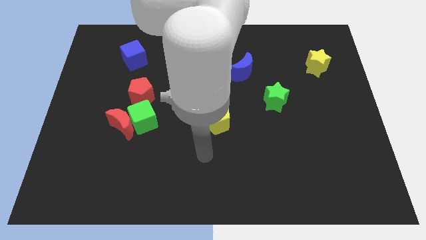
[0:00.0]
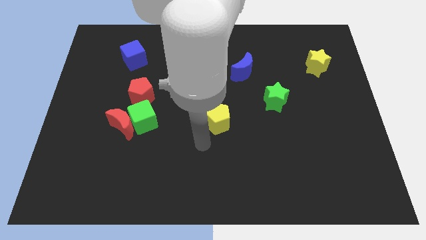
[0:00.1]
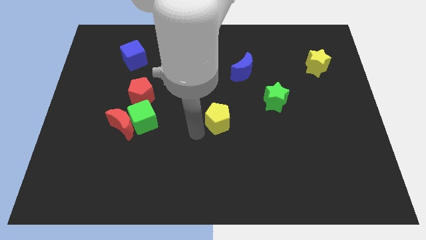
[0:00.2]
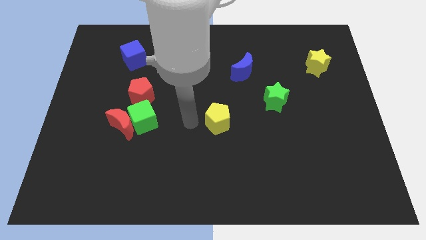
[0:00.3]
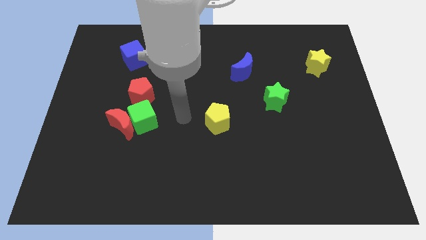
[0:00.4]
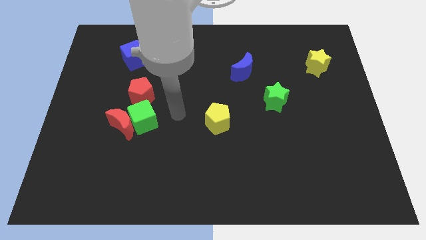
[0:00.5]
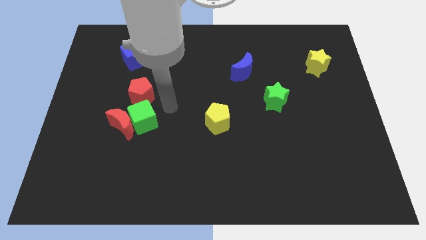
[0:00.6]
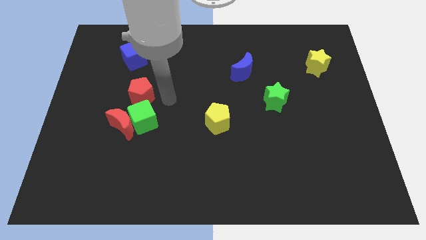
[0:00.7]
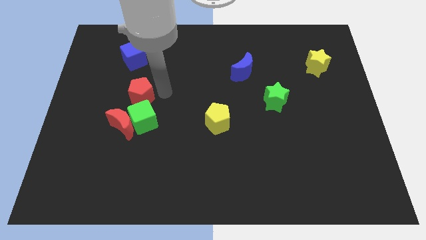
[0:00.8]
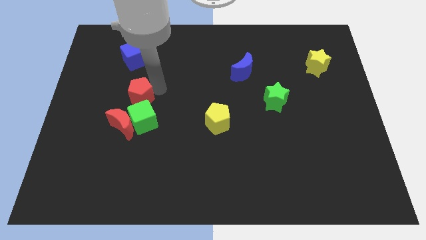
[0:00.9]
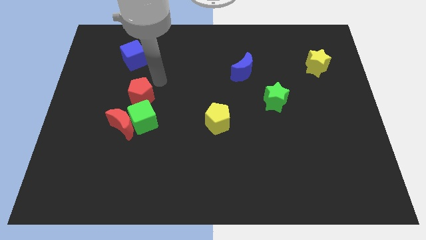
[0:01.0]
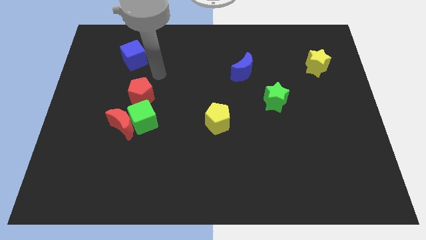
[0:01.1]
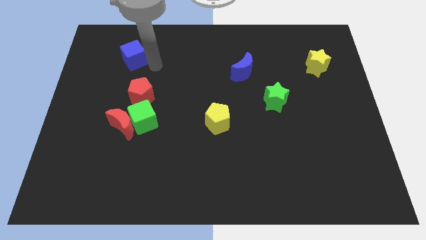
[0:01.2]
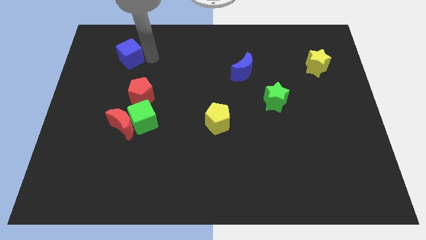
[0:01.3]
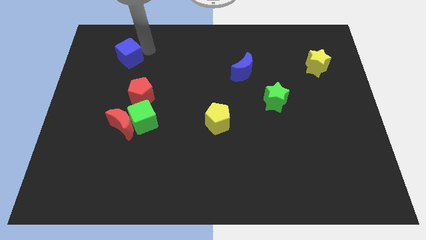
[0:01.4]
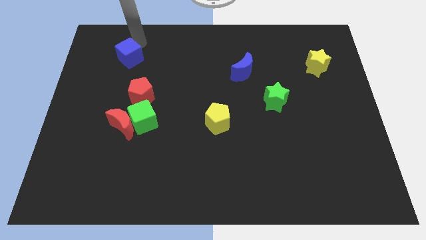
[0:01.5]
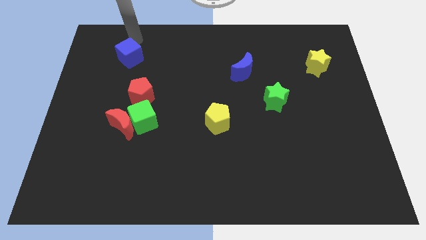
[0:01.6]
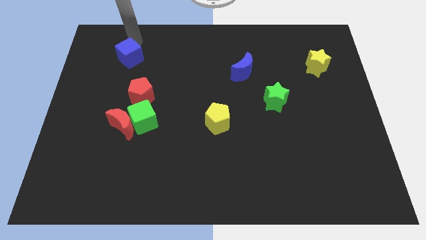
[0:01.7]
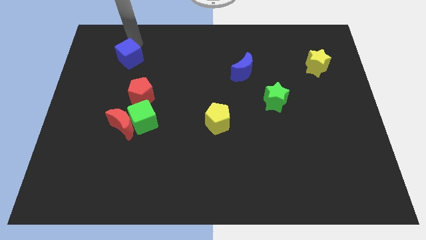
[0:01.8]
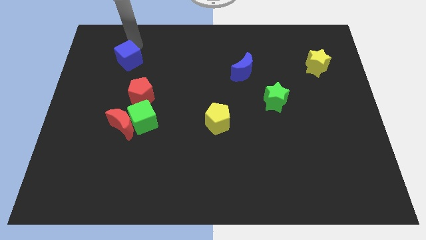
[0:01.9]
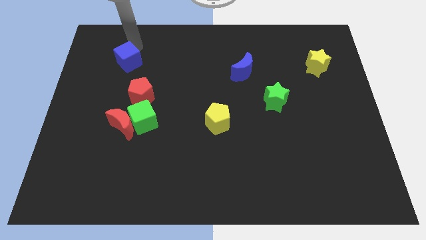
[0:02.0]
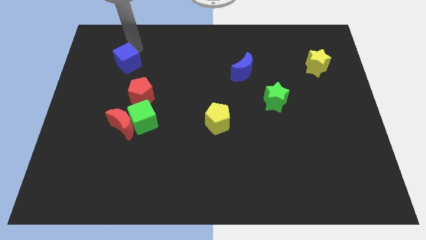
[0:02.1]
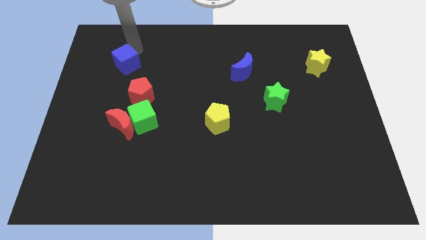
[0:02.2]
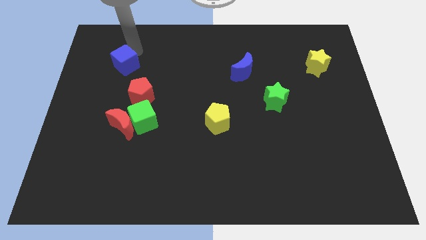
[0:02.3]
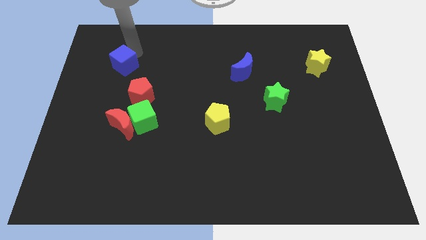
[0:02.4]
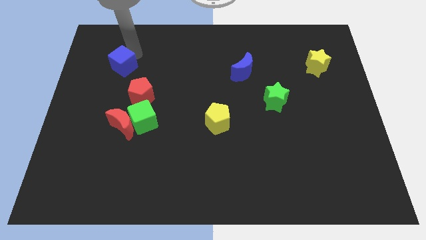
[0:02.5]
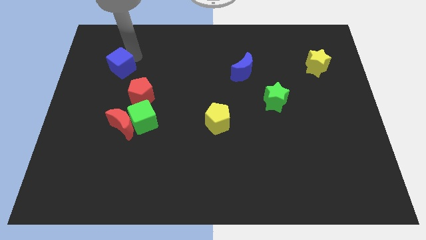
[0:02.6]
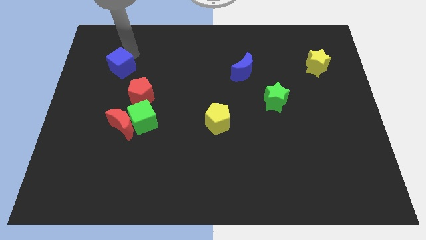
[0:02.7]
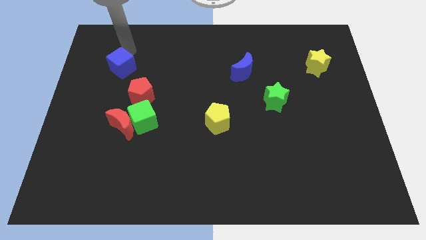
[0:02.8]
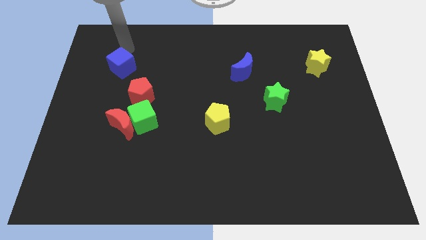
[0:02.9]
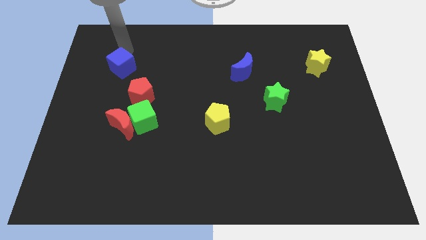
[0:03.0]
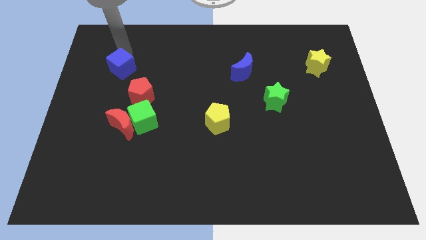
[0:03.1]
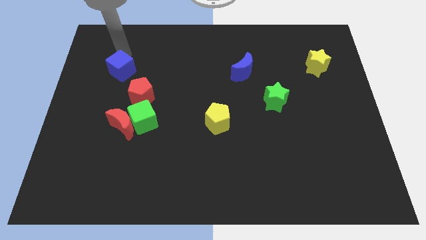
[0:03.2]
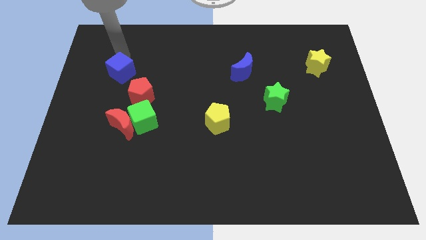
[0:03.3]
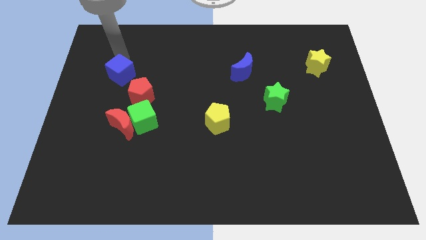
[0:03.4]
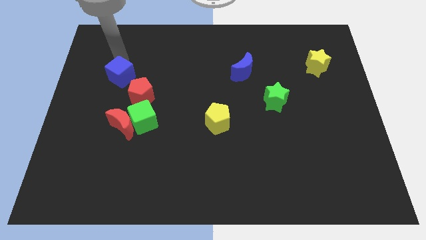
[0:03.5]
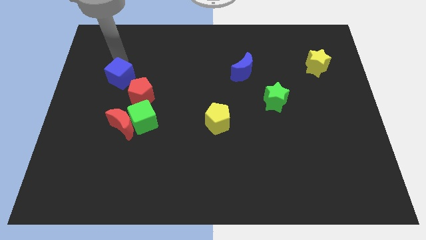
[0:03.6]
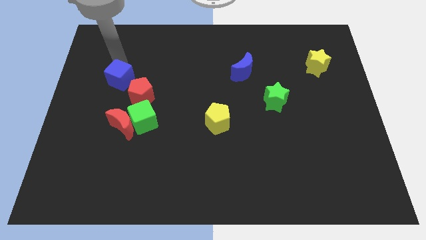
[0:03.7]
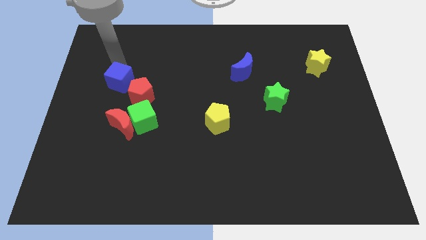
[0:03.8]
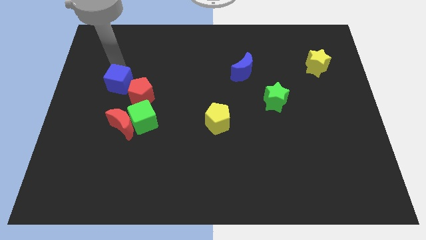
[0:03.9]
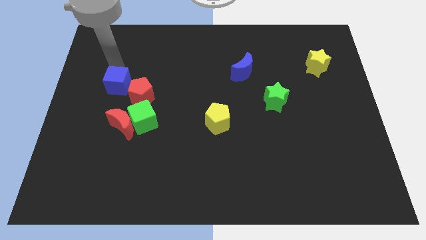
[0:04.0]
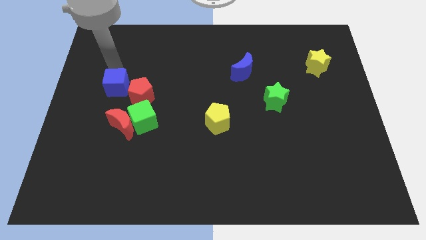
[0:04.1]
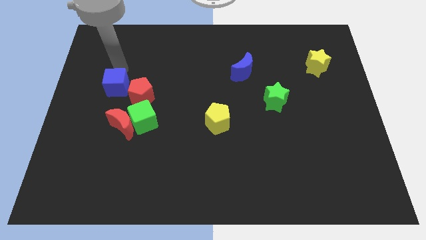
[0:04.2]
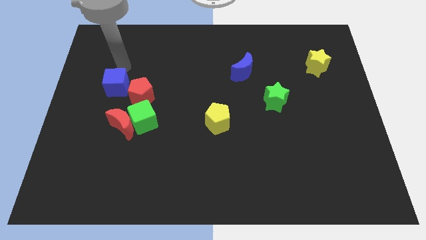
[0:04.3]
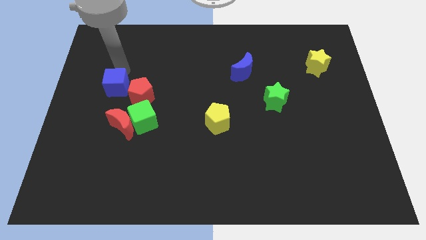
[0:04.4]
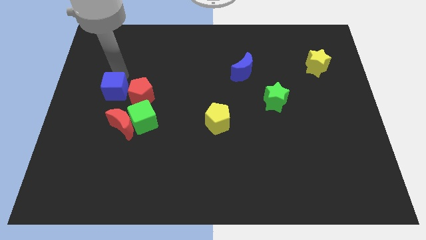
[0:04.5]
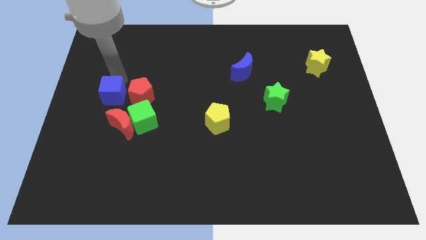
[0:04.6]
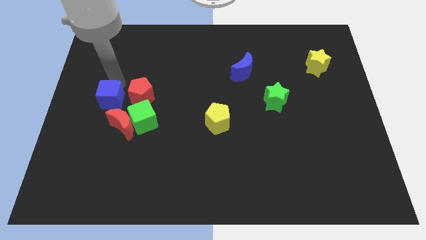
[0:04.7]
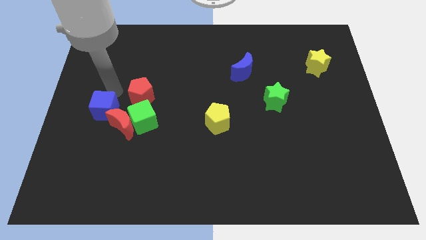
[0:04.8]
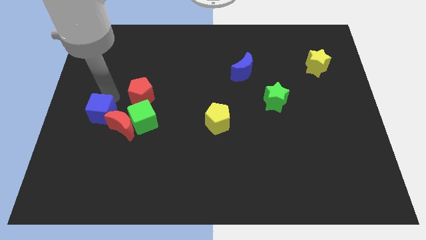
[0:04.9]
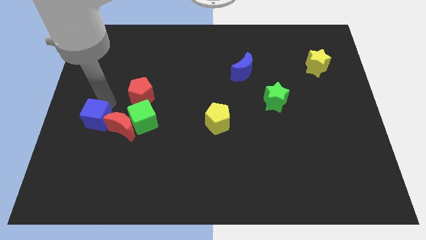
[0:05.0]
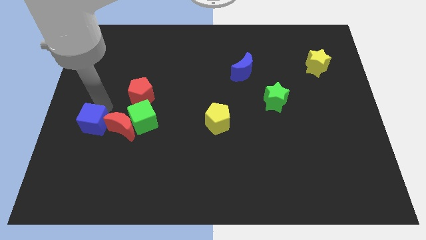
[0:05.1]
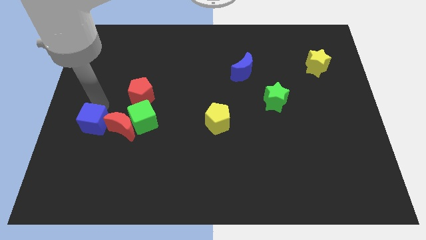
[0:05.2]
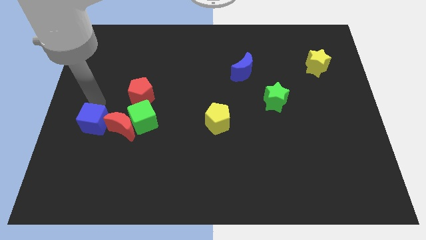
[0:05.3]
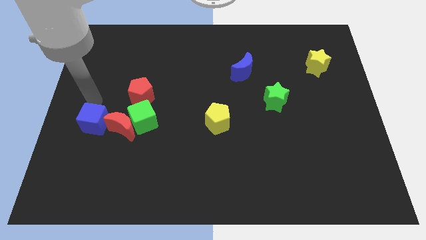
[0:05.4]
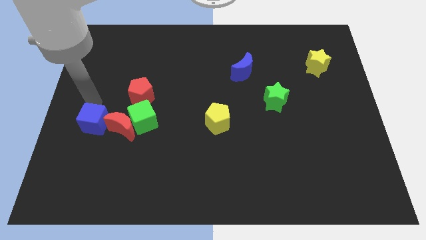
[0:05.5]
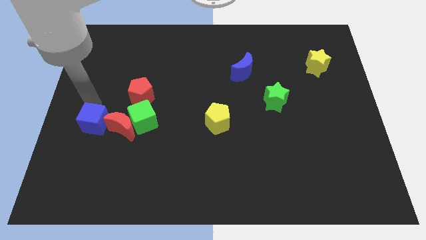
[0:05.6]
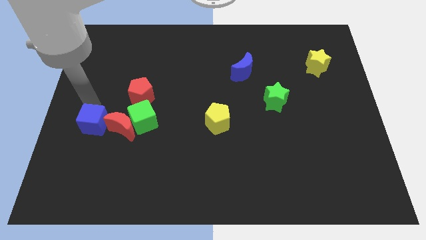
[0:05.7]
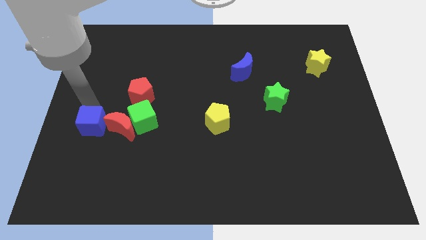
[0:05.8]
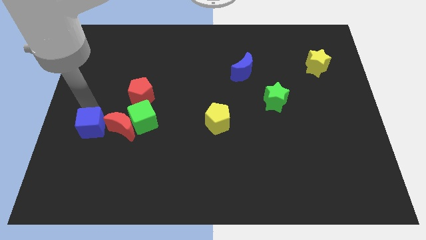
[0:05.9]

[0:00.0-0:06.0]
move the blue cube downwards

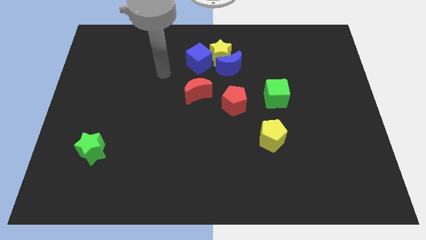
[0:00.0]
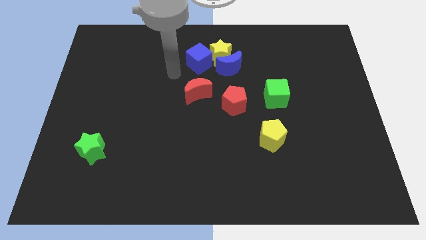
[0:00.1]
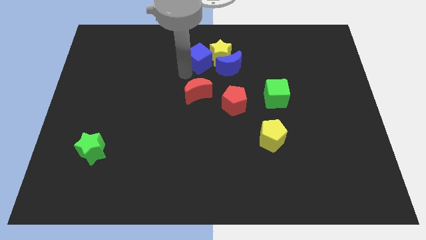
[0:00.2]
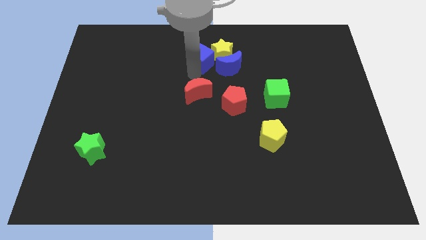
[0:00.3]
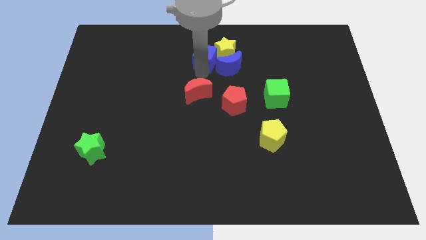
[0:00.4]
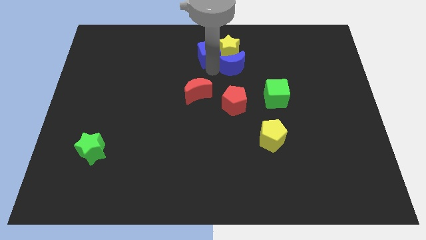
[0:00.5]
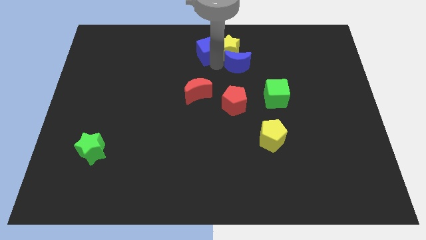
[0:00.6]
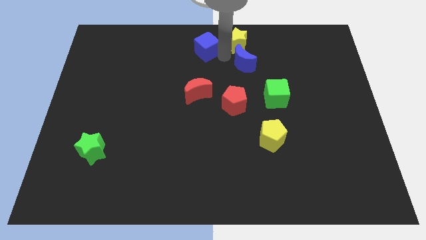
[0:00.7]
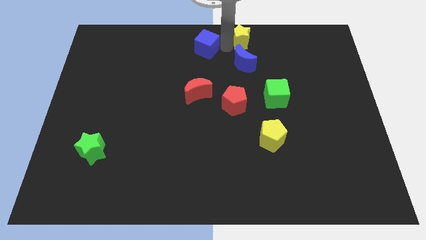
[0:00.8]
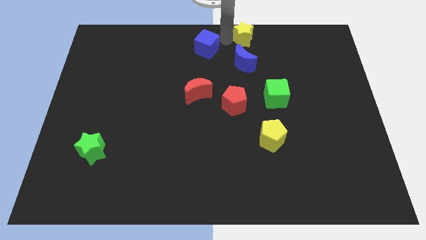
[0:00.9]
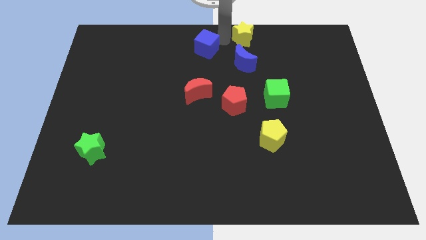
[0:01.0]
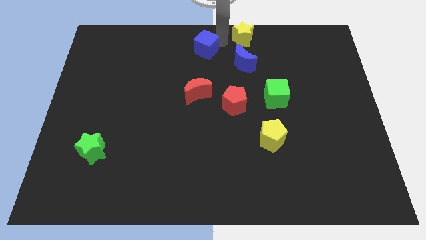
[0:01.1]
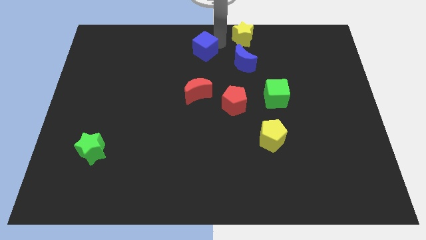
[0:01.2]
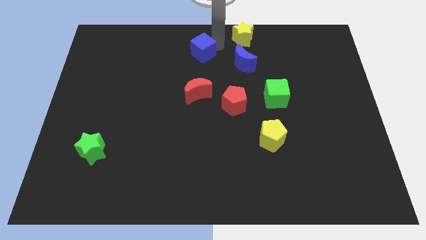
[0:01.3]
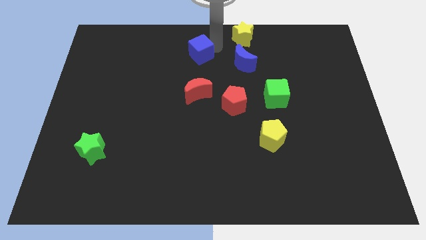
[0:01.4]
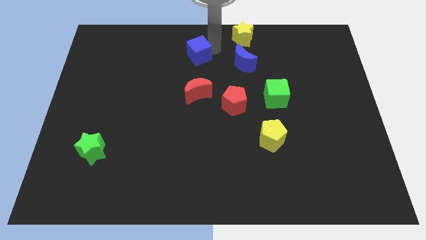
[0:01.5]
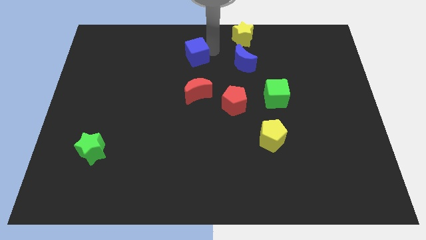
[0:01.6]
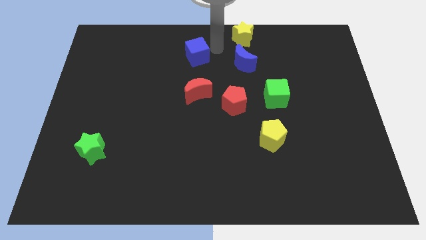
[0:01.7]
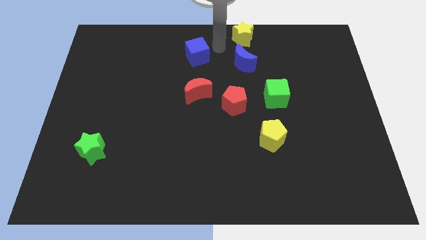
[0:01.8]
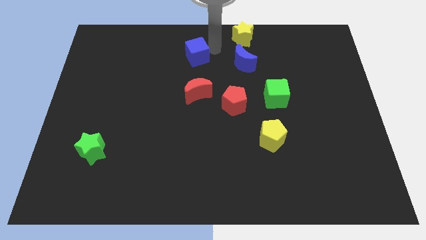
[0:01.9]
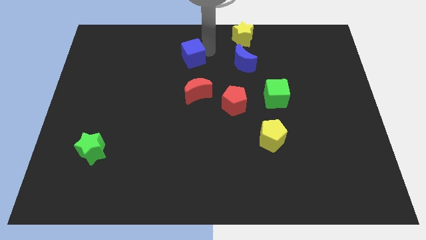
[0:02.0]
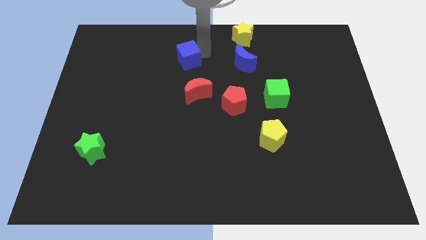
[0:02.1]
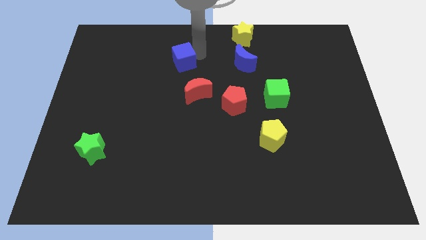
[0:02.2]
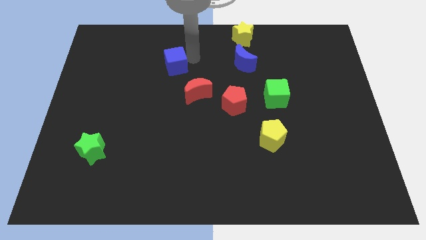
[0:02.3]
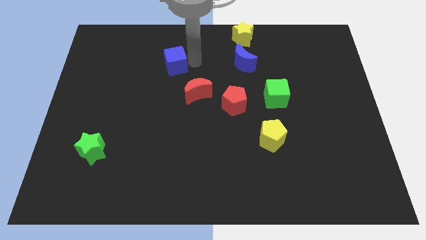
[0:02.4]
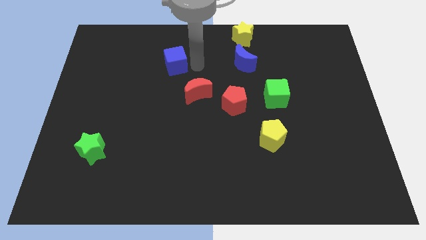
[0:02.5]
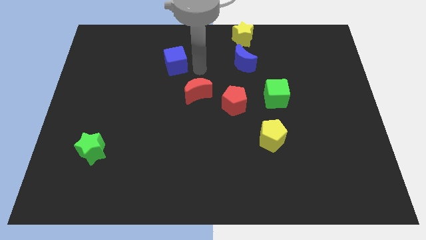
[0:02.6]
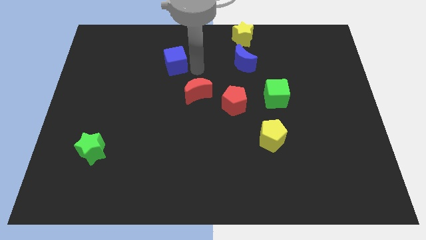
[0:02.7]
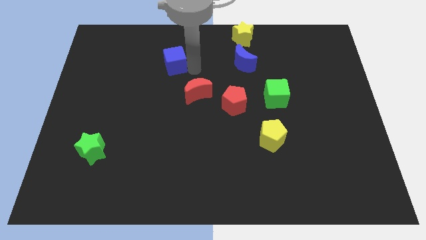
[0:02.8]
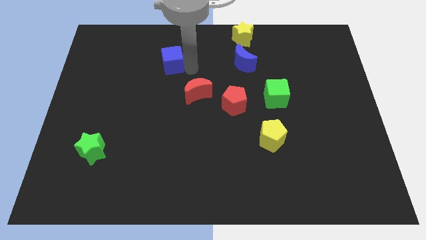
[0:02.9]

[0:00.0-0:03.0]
slide the blue cube somewhat left
